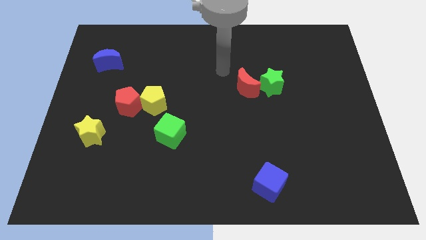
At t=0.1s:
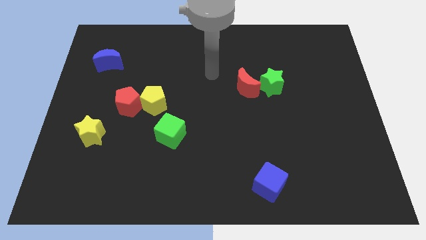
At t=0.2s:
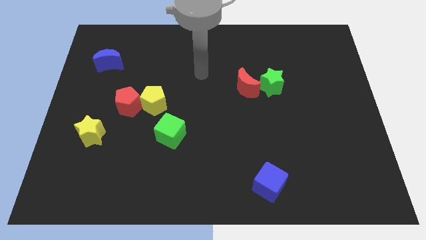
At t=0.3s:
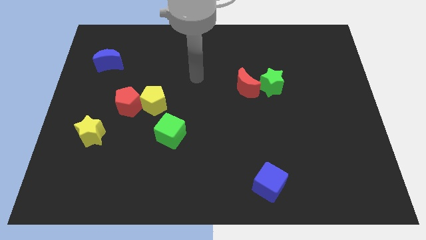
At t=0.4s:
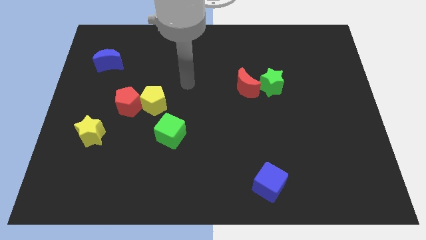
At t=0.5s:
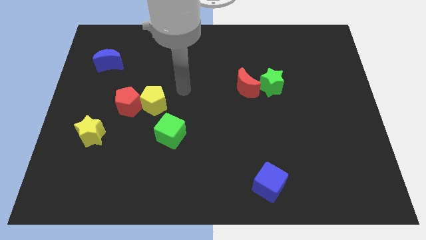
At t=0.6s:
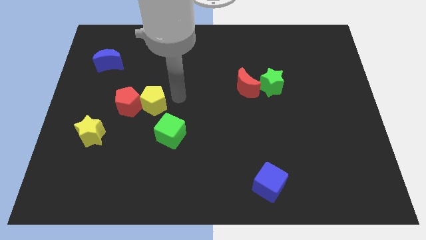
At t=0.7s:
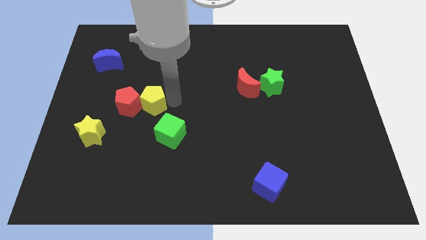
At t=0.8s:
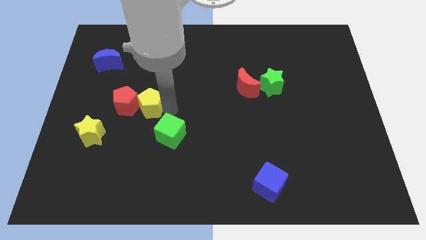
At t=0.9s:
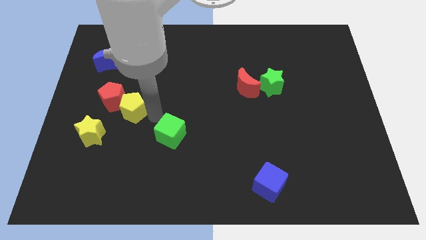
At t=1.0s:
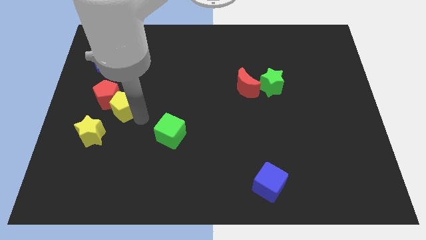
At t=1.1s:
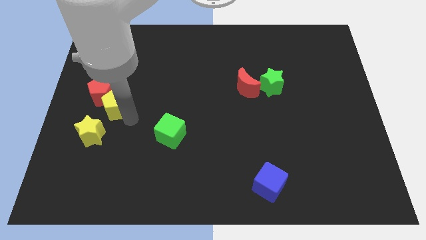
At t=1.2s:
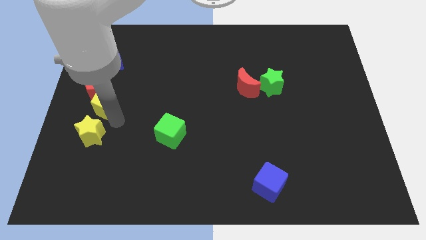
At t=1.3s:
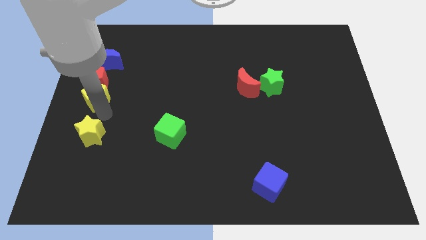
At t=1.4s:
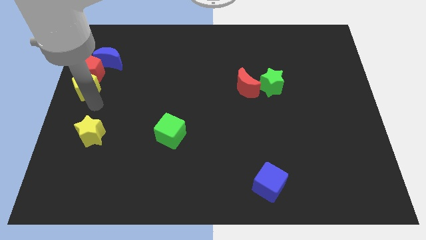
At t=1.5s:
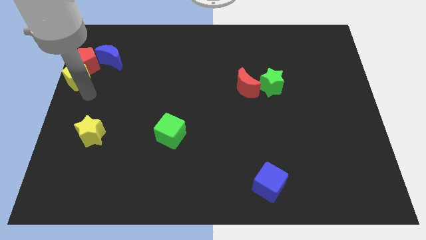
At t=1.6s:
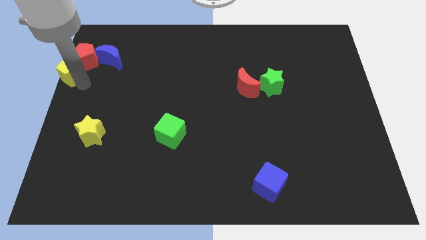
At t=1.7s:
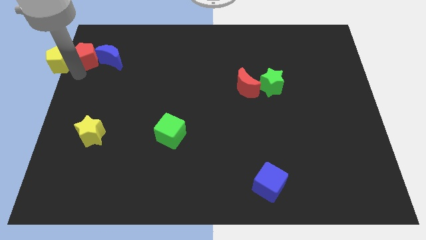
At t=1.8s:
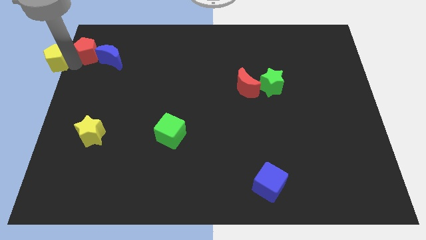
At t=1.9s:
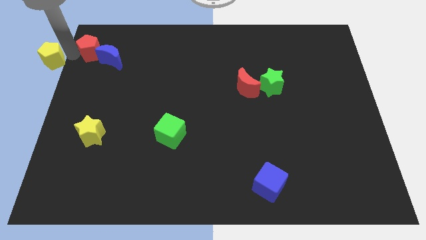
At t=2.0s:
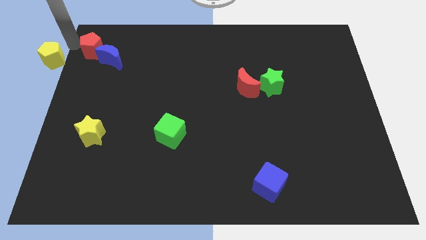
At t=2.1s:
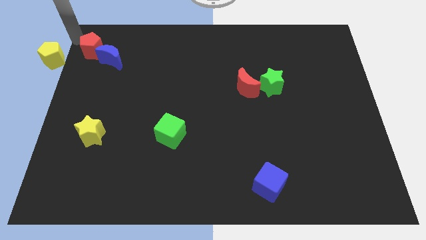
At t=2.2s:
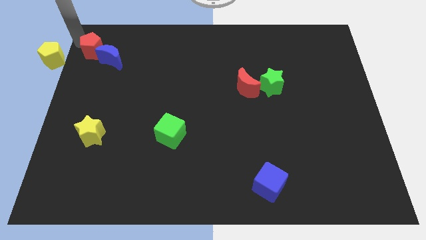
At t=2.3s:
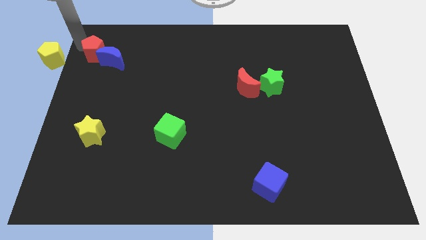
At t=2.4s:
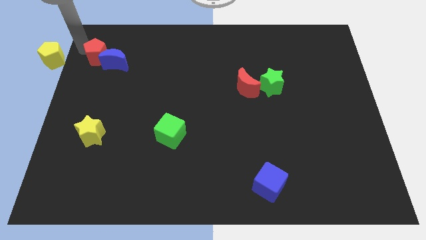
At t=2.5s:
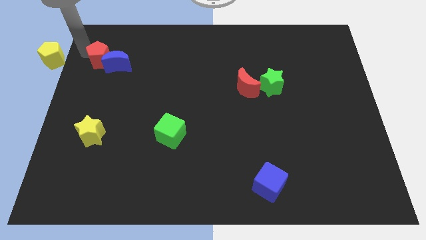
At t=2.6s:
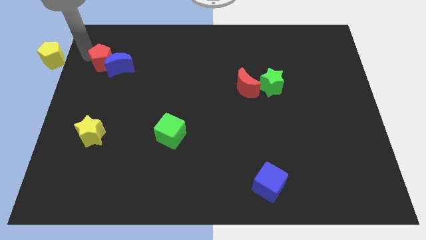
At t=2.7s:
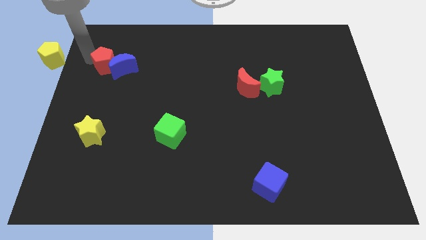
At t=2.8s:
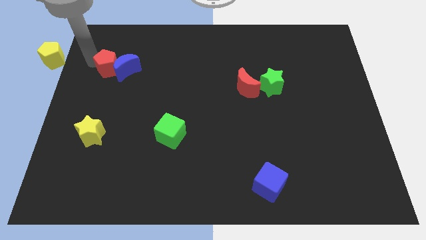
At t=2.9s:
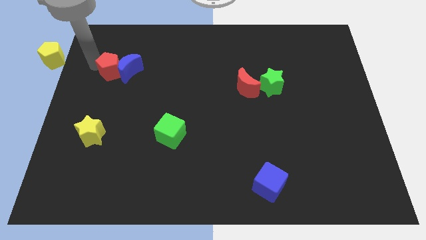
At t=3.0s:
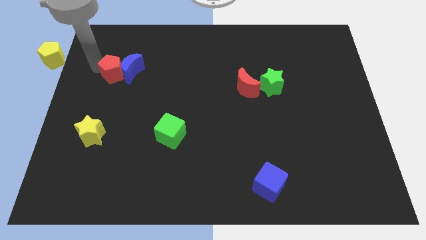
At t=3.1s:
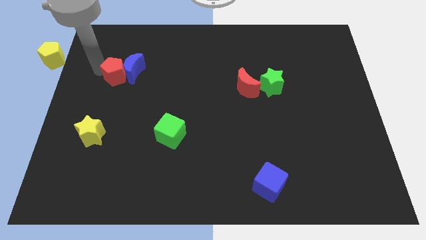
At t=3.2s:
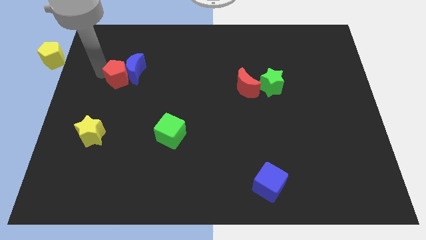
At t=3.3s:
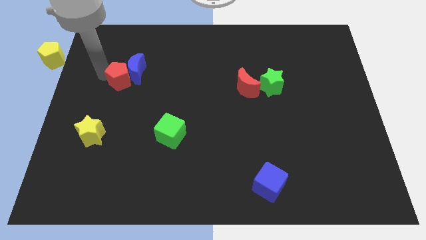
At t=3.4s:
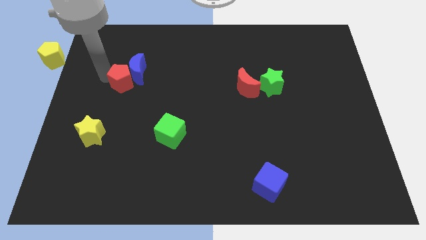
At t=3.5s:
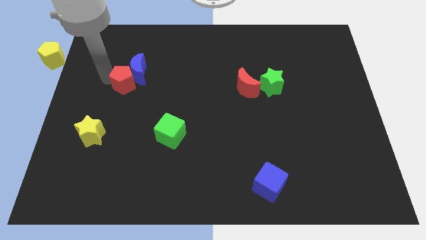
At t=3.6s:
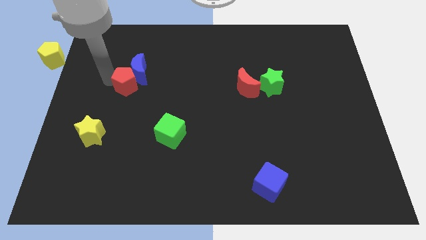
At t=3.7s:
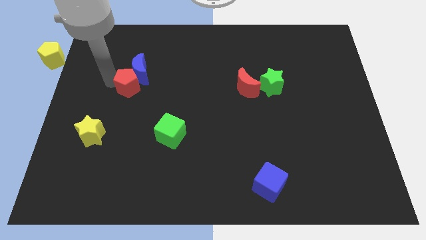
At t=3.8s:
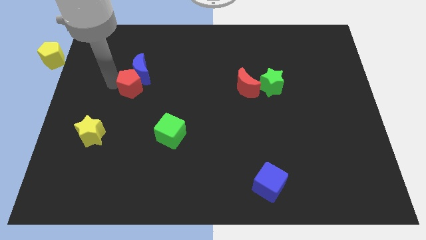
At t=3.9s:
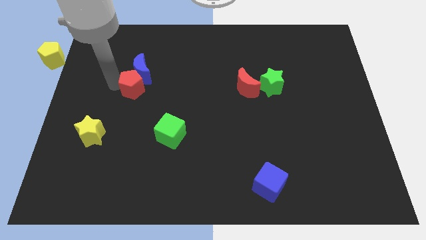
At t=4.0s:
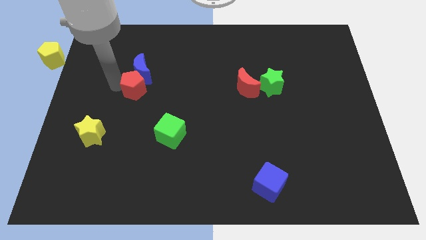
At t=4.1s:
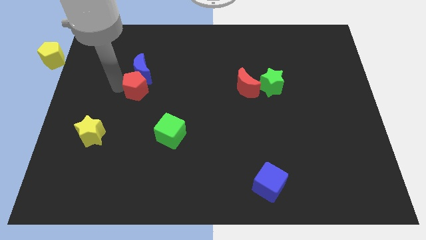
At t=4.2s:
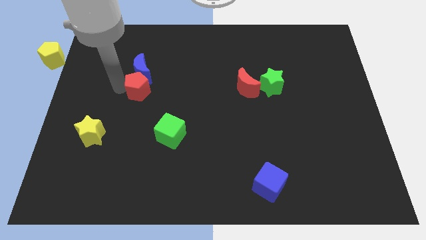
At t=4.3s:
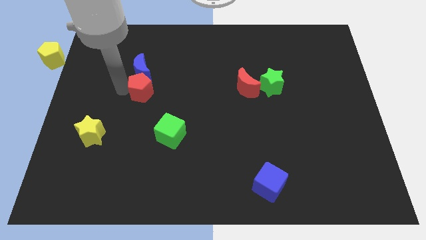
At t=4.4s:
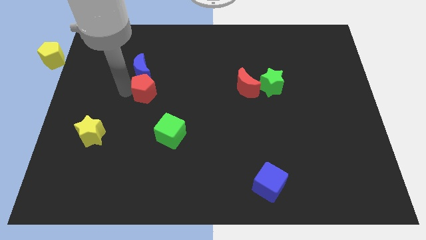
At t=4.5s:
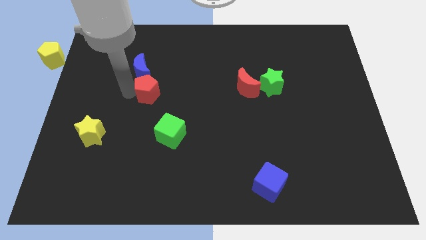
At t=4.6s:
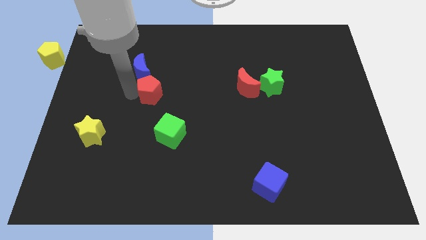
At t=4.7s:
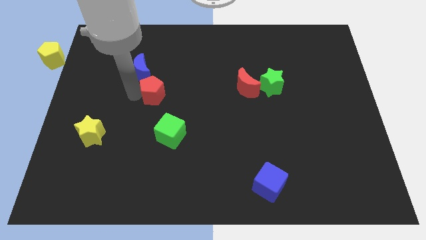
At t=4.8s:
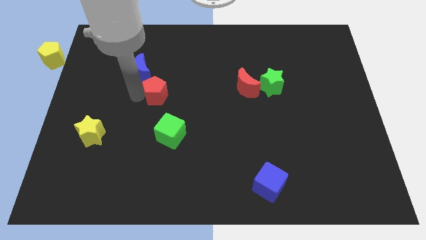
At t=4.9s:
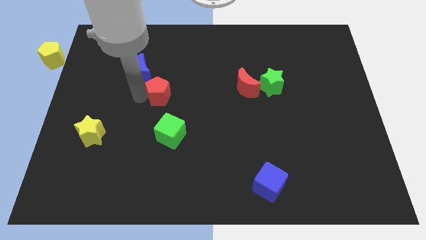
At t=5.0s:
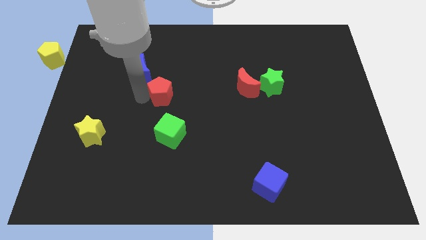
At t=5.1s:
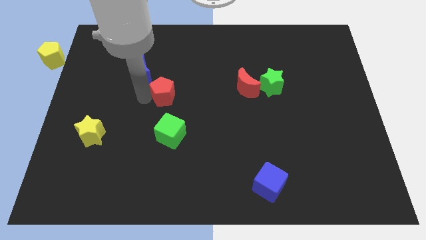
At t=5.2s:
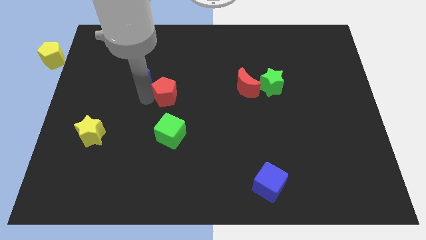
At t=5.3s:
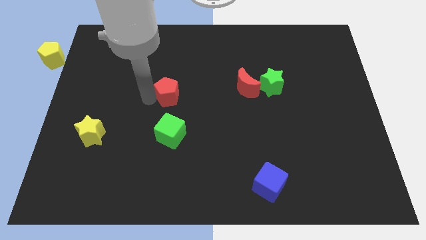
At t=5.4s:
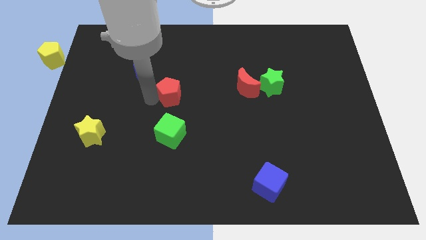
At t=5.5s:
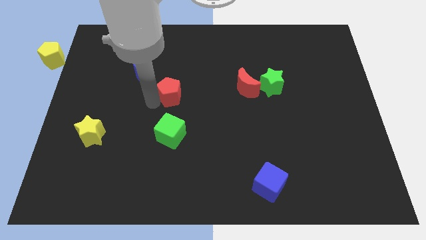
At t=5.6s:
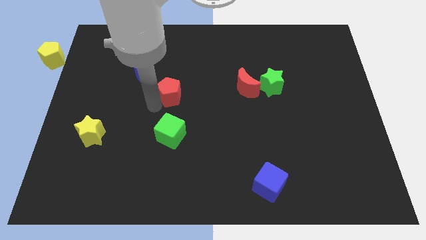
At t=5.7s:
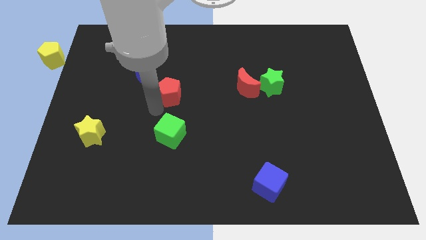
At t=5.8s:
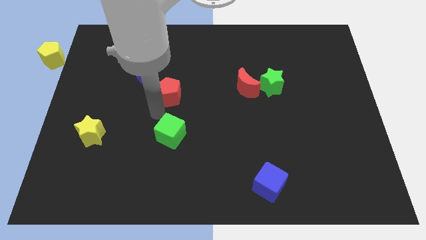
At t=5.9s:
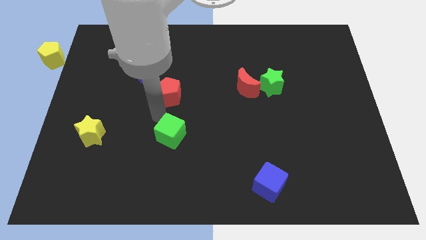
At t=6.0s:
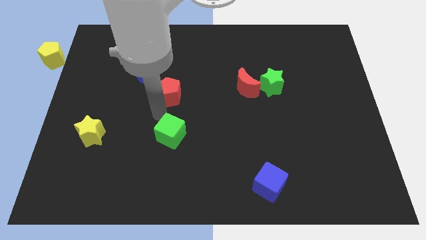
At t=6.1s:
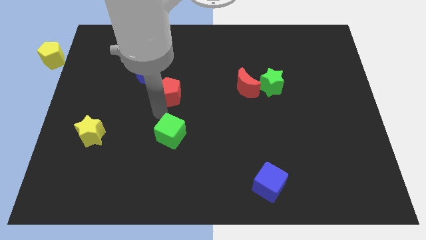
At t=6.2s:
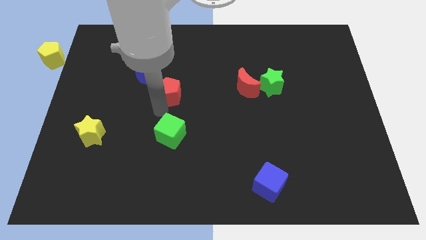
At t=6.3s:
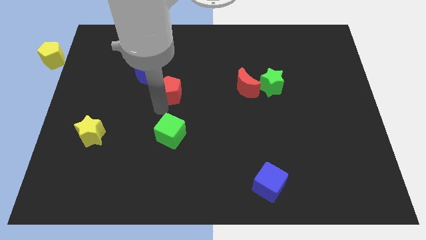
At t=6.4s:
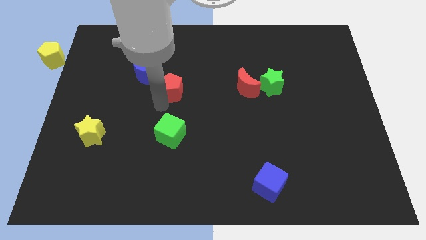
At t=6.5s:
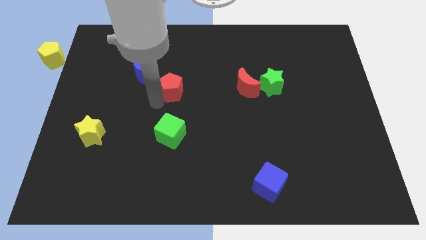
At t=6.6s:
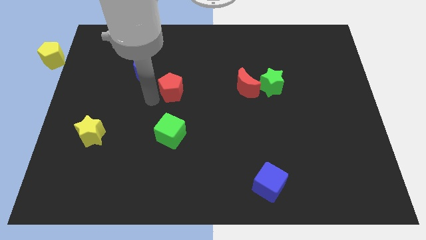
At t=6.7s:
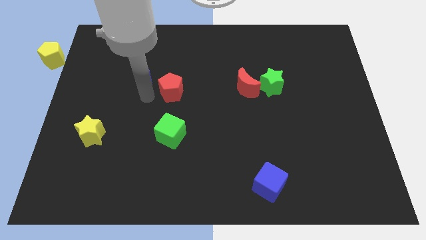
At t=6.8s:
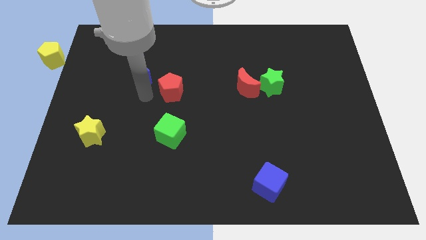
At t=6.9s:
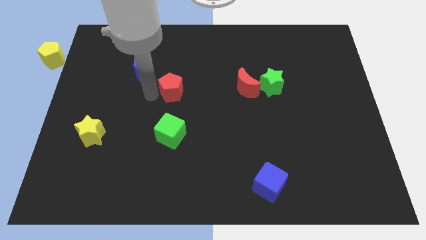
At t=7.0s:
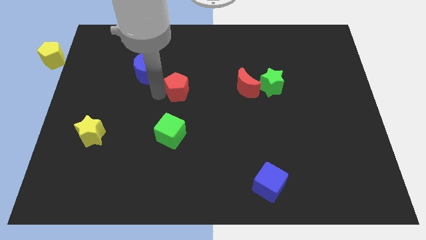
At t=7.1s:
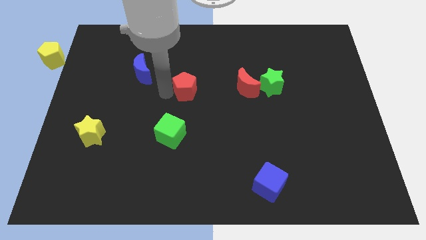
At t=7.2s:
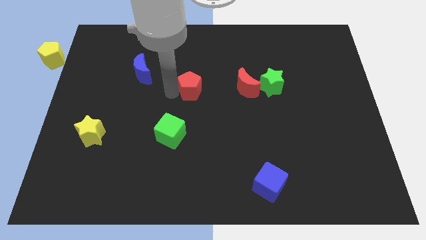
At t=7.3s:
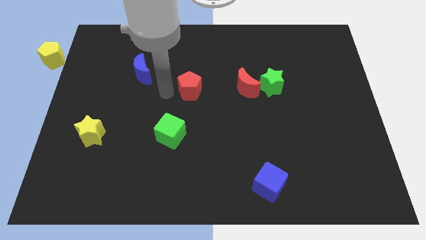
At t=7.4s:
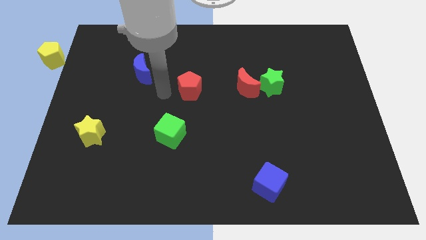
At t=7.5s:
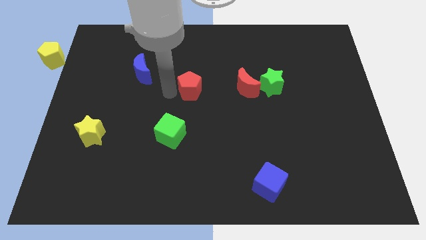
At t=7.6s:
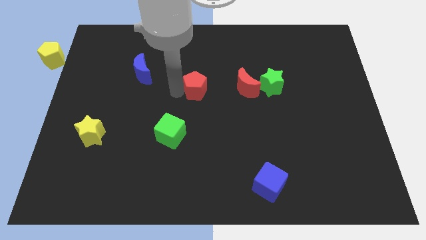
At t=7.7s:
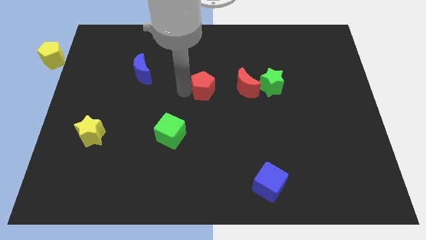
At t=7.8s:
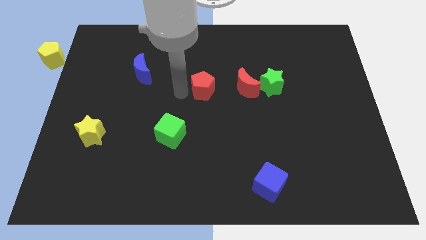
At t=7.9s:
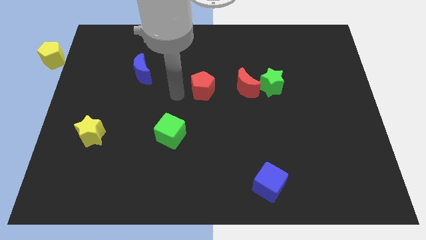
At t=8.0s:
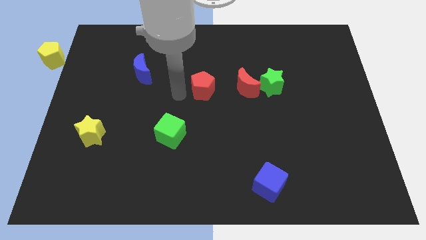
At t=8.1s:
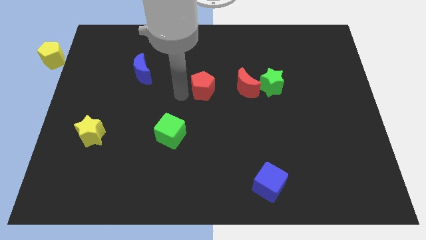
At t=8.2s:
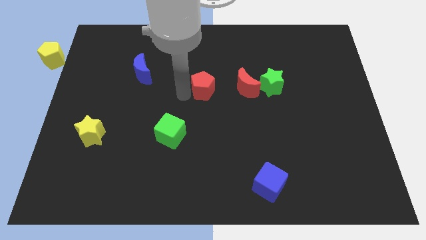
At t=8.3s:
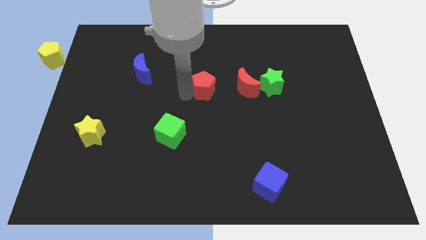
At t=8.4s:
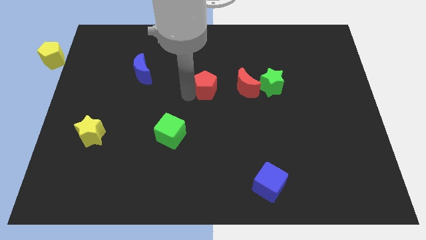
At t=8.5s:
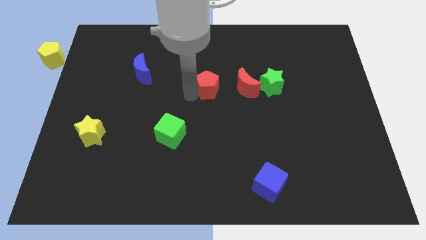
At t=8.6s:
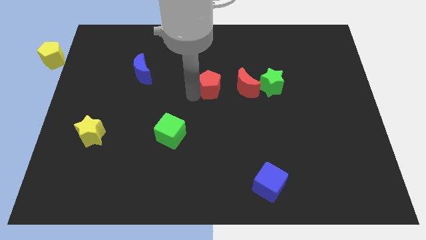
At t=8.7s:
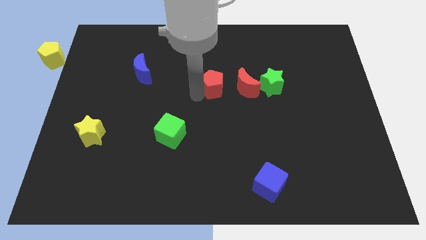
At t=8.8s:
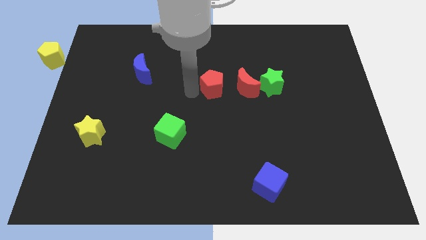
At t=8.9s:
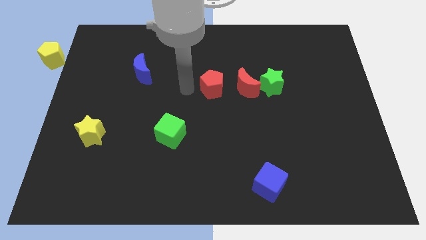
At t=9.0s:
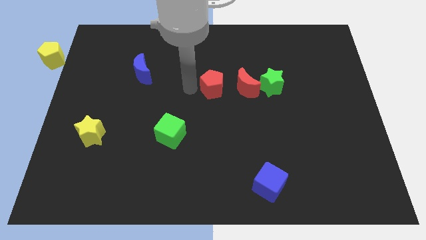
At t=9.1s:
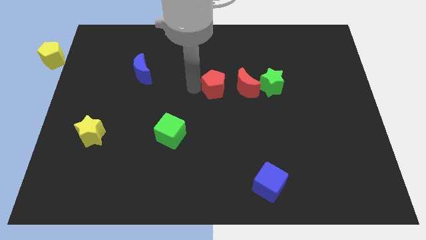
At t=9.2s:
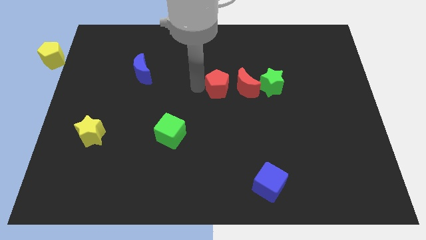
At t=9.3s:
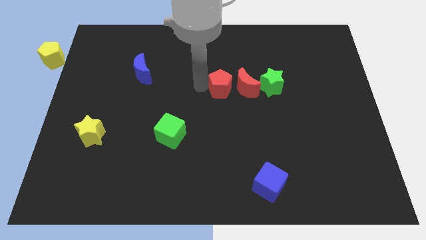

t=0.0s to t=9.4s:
put the red pentagon next to the red moon
